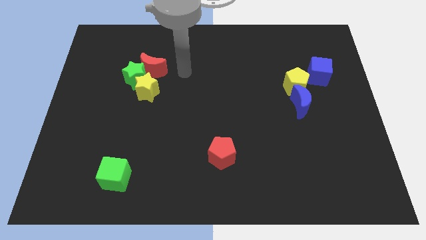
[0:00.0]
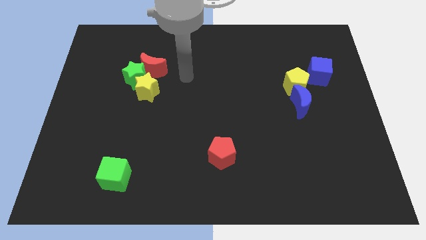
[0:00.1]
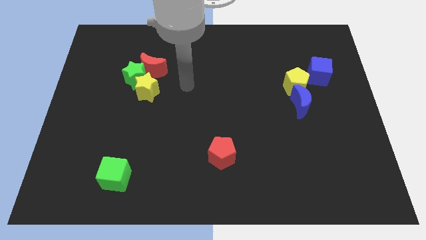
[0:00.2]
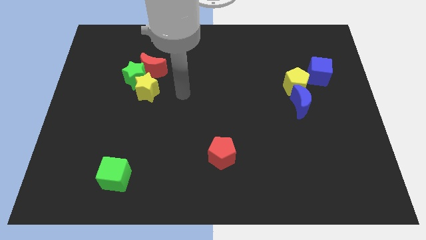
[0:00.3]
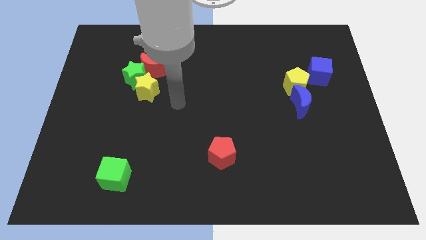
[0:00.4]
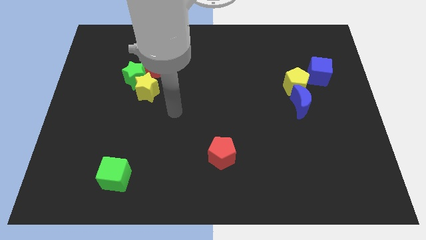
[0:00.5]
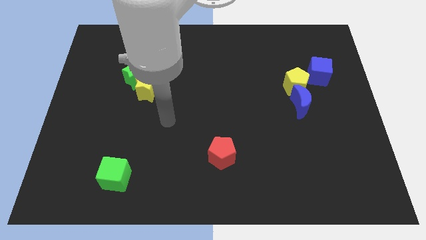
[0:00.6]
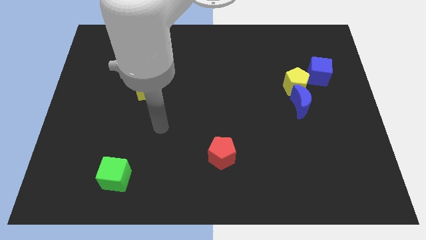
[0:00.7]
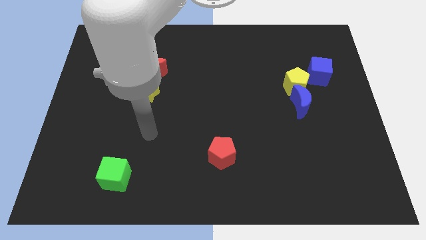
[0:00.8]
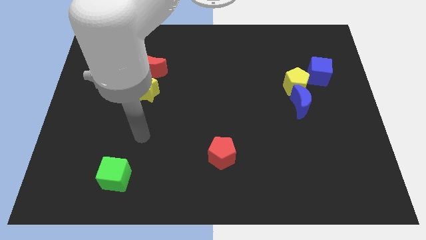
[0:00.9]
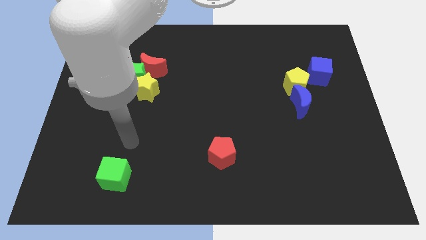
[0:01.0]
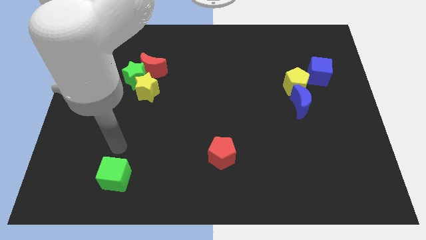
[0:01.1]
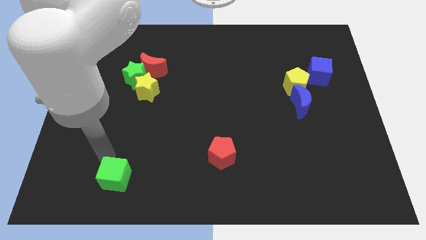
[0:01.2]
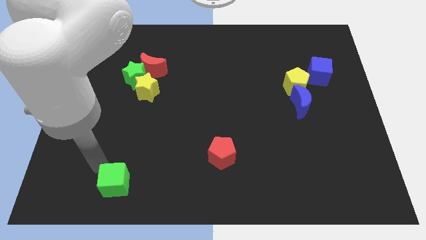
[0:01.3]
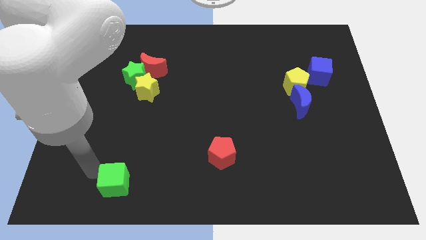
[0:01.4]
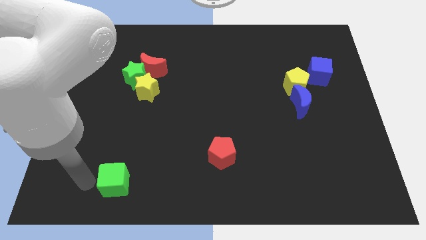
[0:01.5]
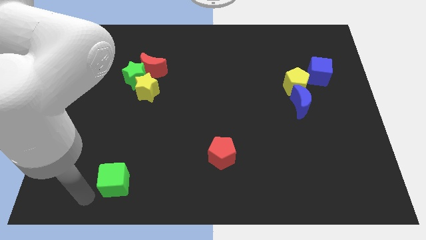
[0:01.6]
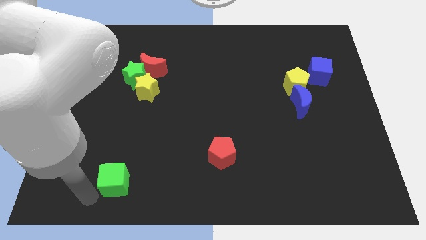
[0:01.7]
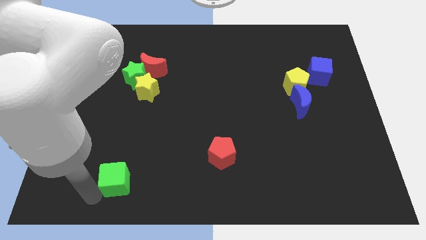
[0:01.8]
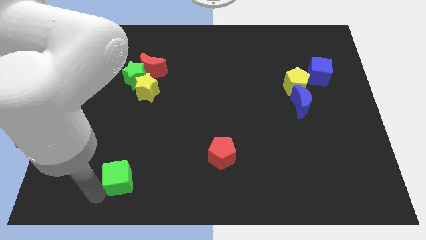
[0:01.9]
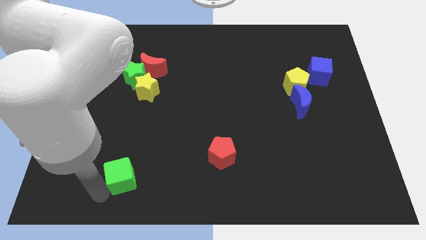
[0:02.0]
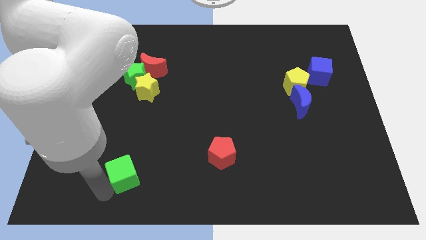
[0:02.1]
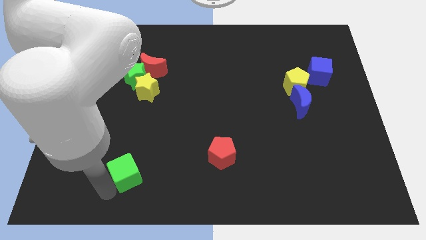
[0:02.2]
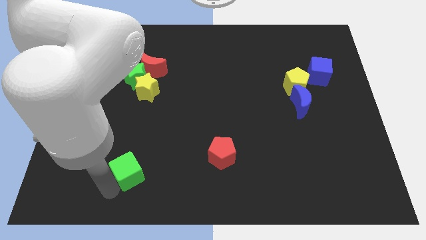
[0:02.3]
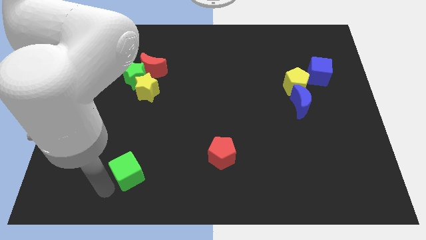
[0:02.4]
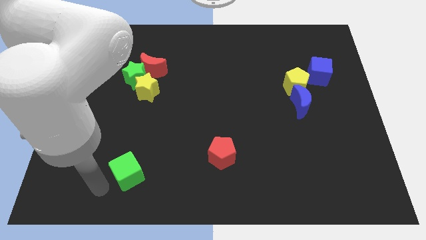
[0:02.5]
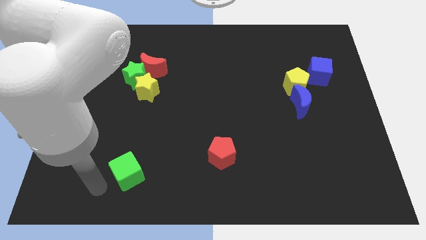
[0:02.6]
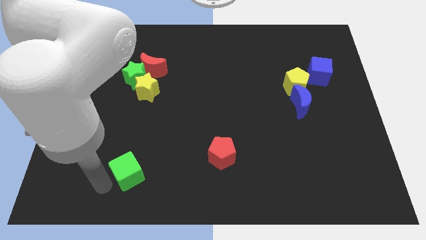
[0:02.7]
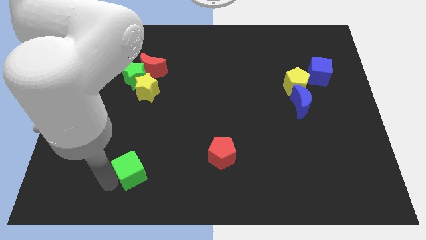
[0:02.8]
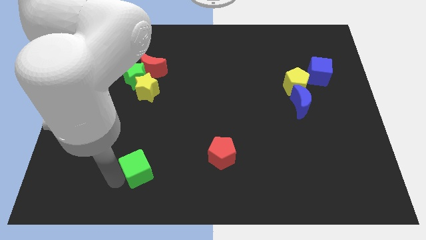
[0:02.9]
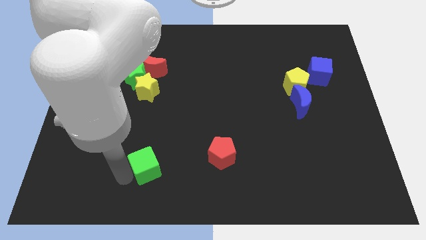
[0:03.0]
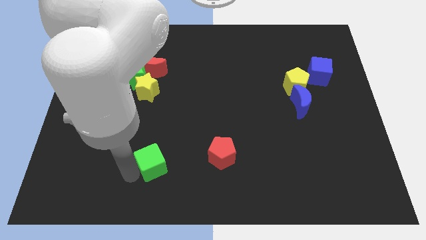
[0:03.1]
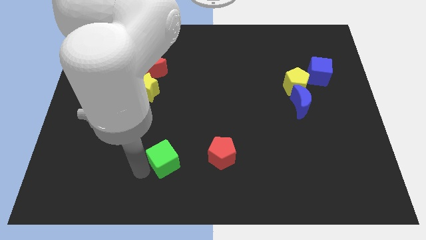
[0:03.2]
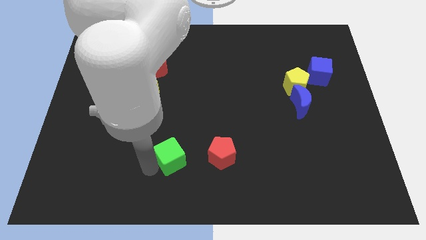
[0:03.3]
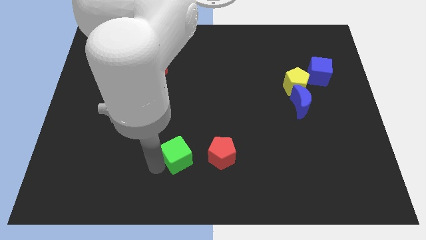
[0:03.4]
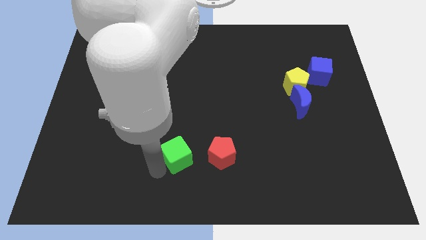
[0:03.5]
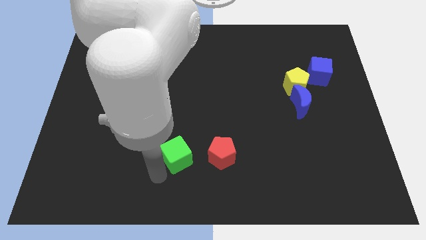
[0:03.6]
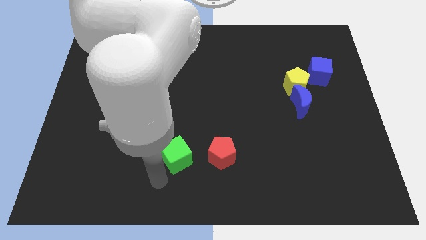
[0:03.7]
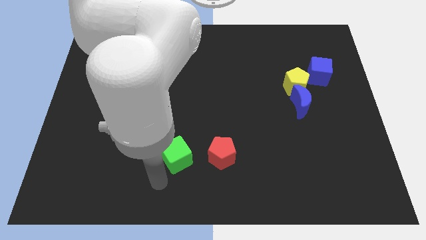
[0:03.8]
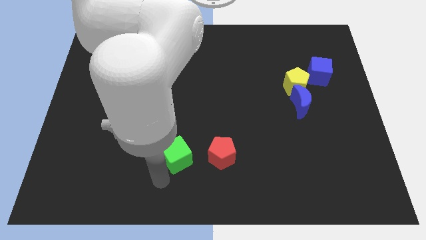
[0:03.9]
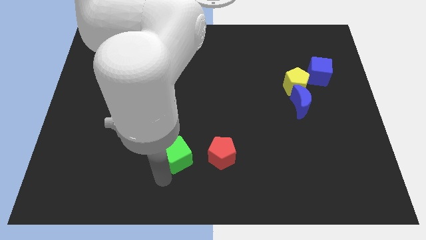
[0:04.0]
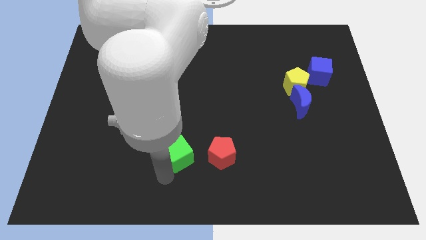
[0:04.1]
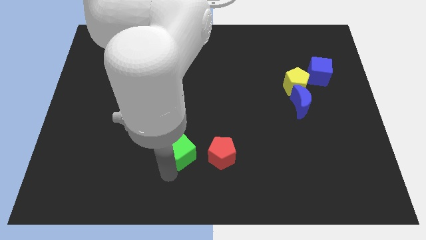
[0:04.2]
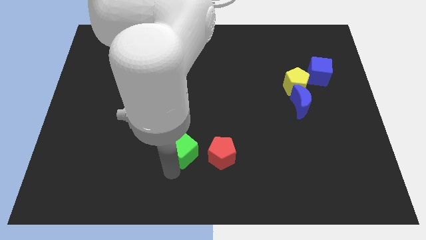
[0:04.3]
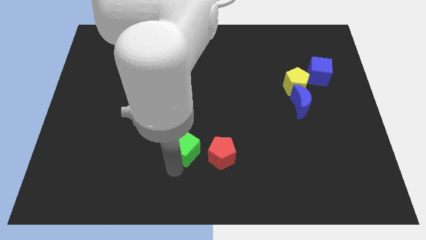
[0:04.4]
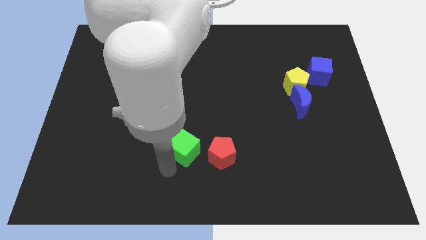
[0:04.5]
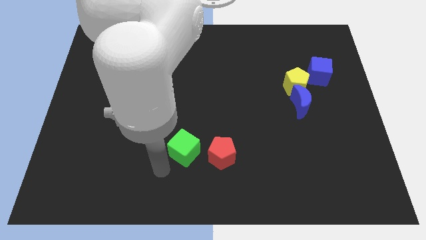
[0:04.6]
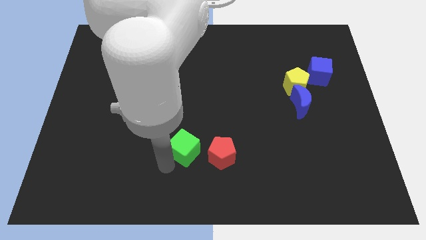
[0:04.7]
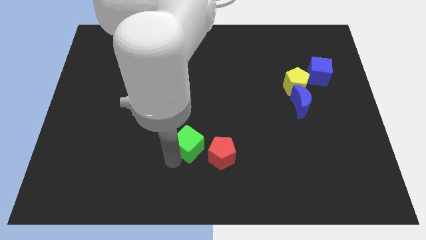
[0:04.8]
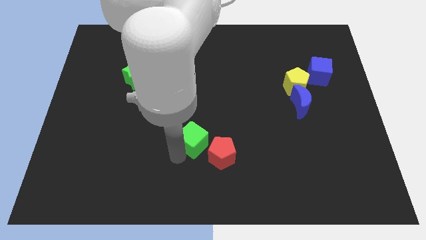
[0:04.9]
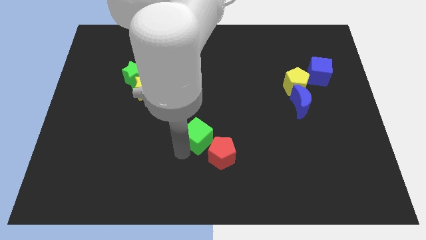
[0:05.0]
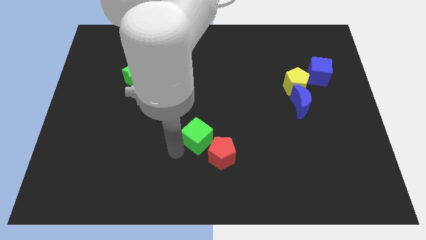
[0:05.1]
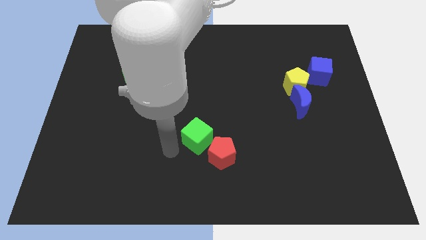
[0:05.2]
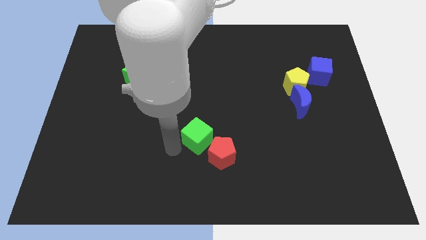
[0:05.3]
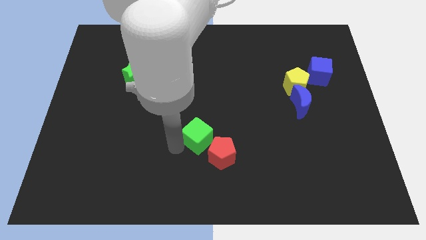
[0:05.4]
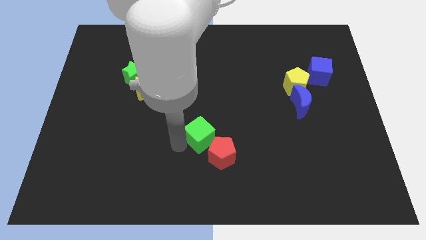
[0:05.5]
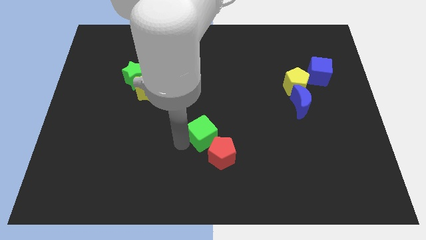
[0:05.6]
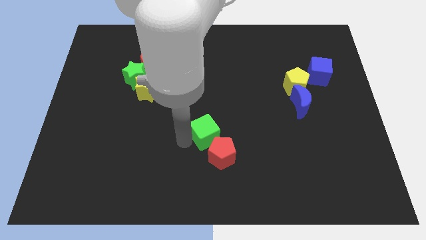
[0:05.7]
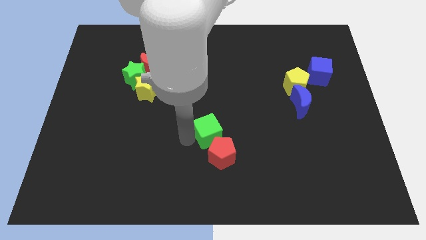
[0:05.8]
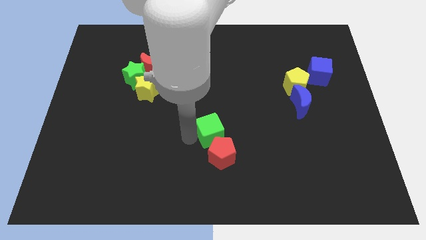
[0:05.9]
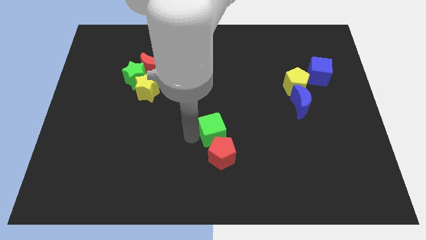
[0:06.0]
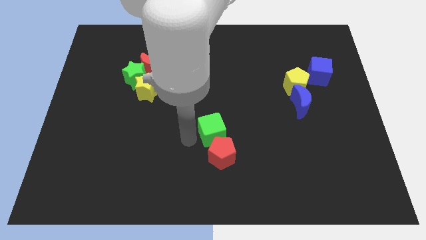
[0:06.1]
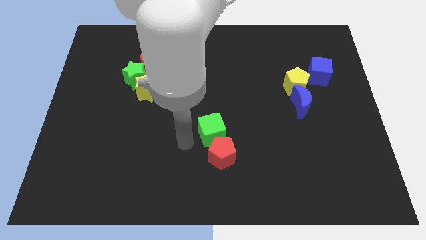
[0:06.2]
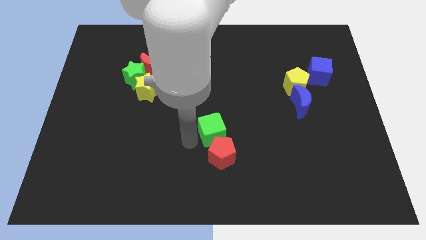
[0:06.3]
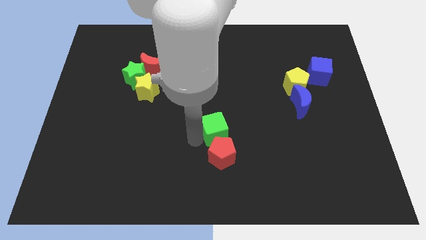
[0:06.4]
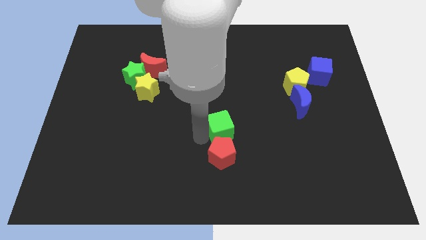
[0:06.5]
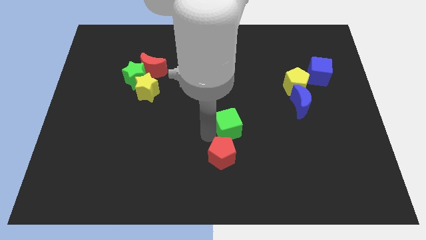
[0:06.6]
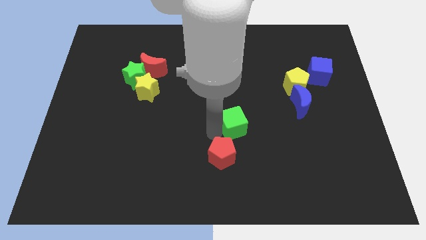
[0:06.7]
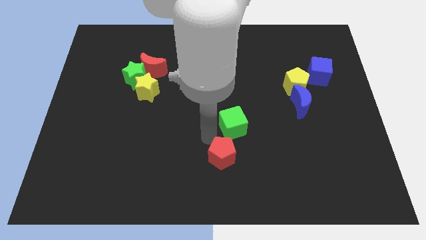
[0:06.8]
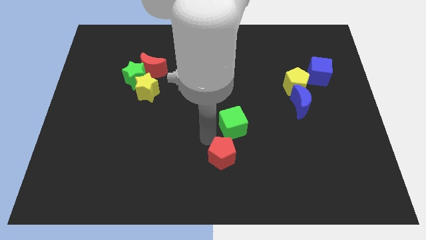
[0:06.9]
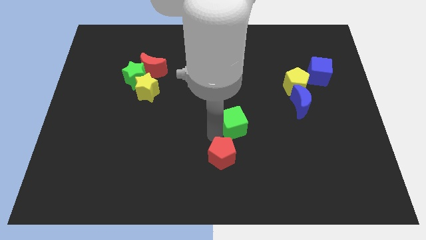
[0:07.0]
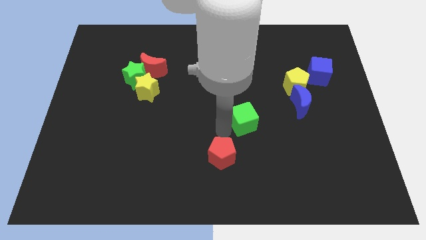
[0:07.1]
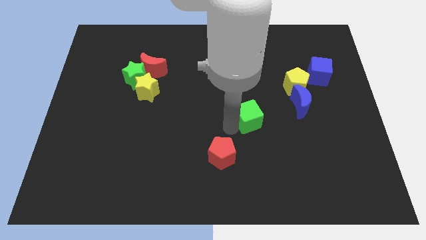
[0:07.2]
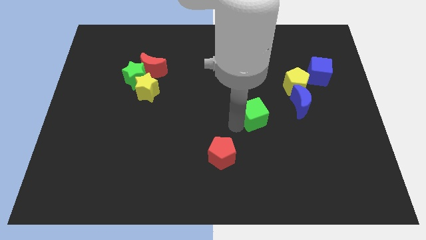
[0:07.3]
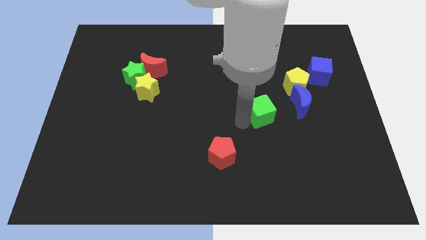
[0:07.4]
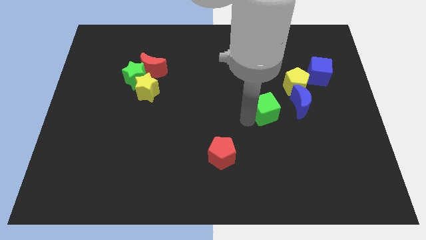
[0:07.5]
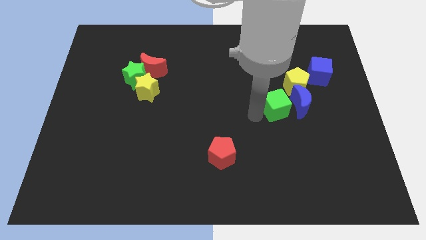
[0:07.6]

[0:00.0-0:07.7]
push the green cube to the blue moon
